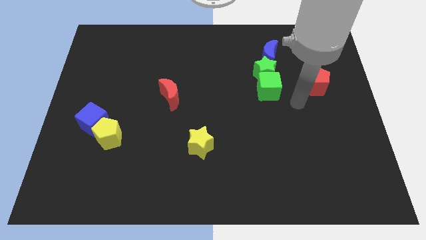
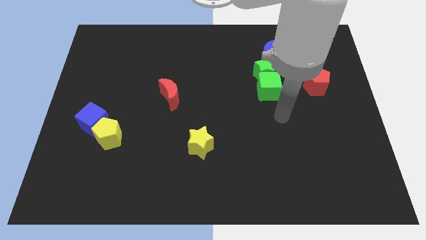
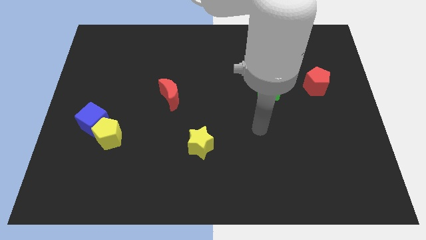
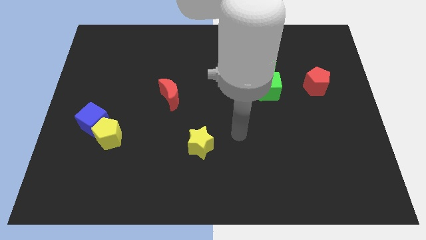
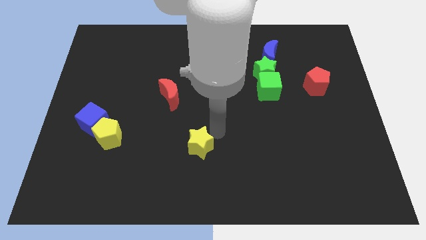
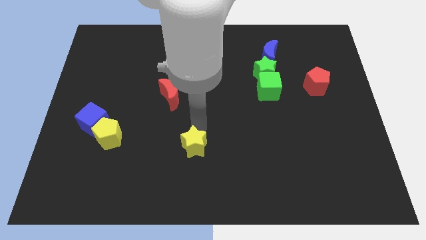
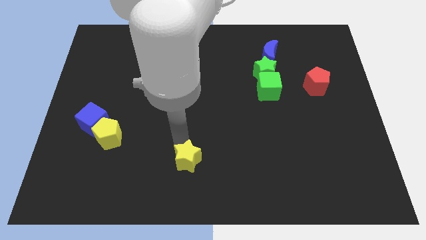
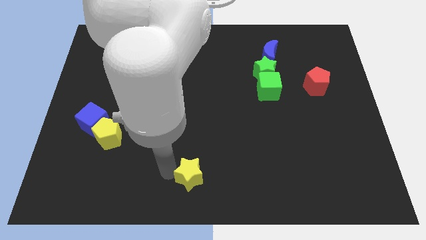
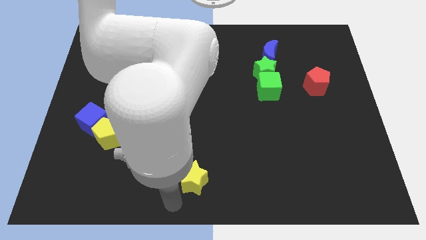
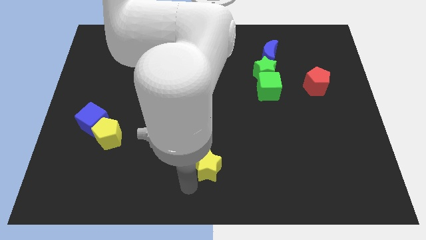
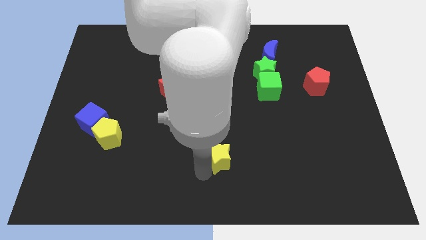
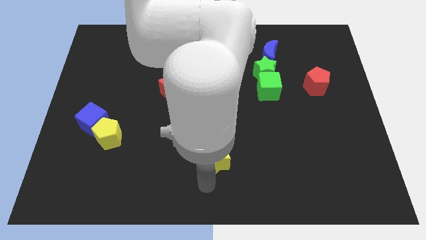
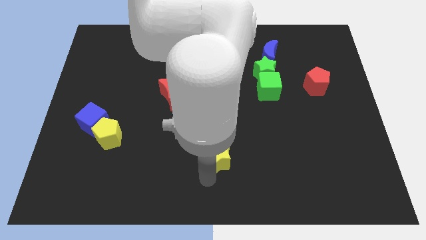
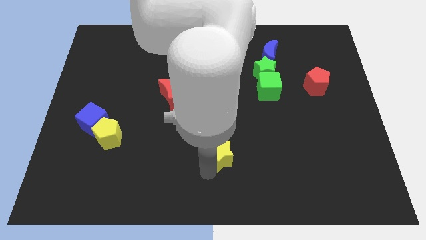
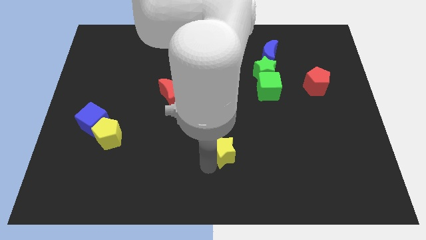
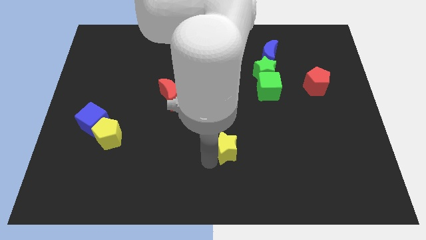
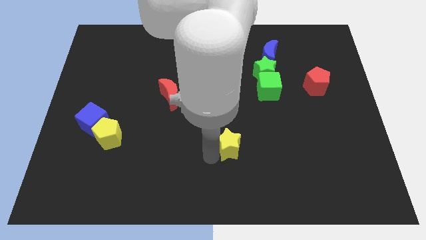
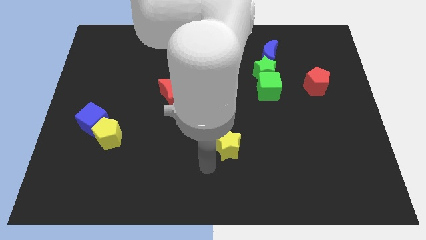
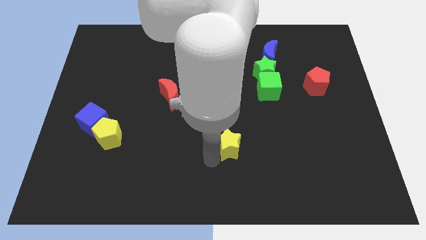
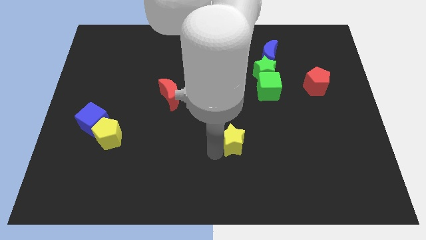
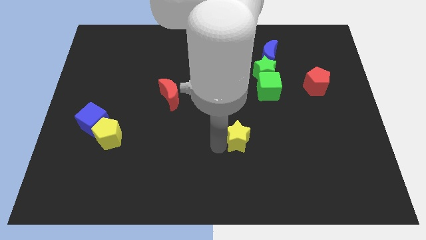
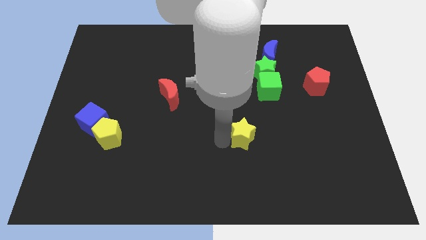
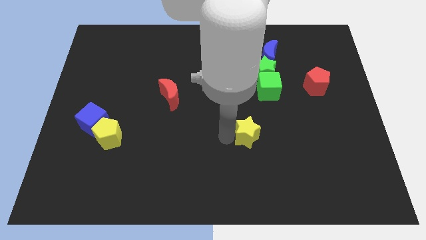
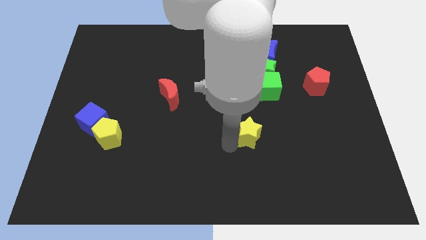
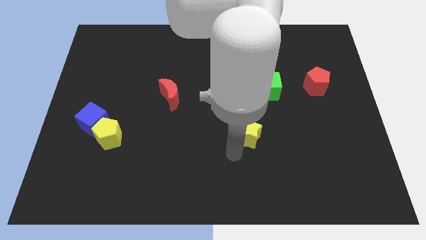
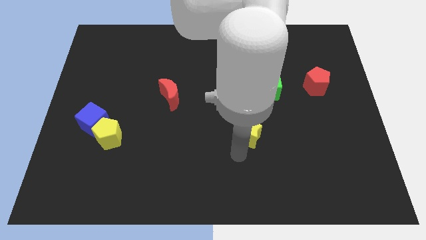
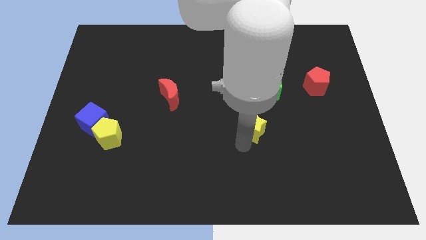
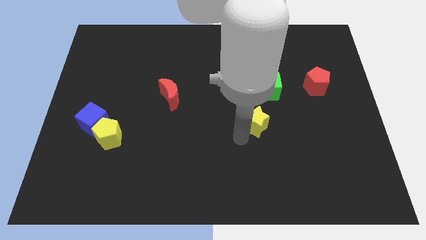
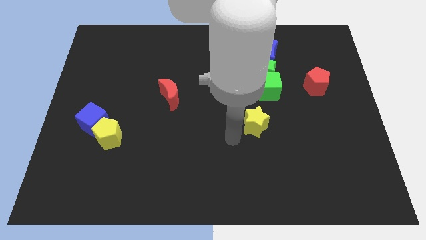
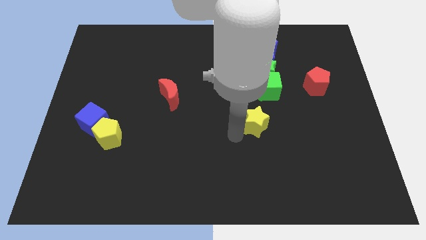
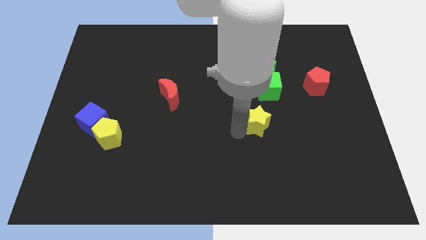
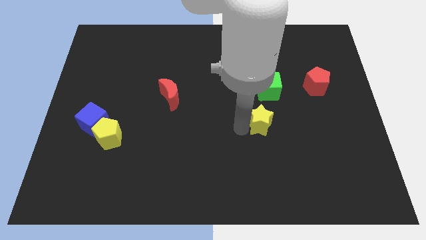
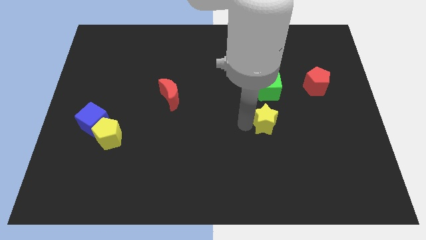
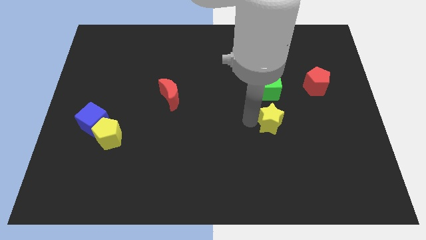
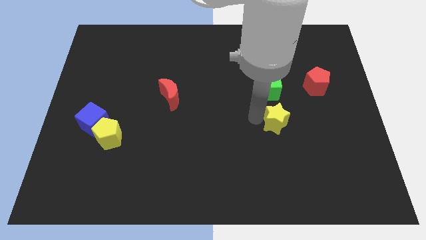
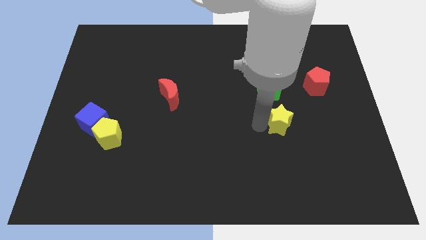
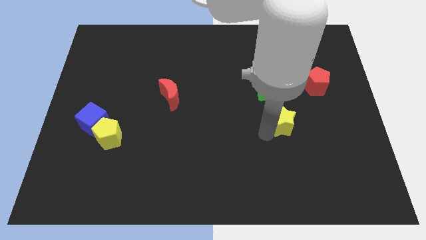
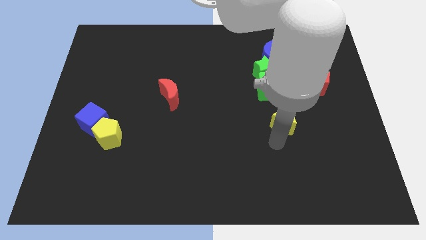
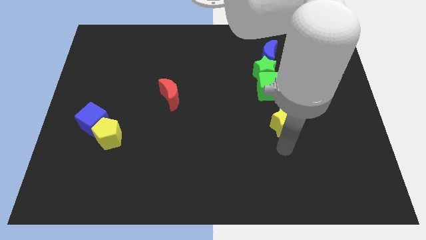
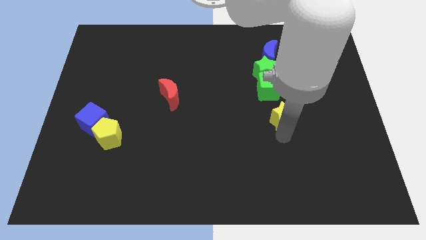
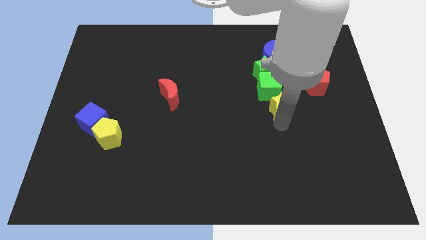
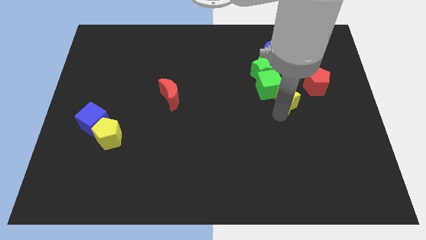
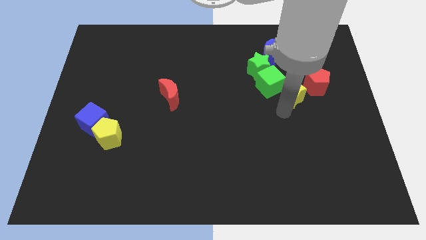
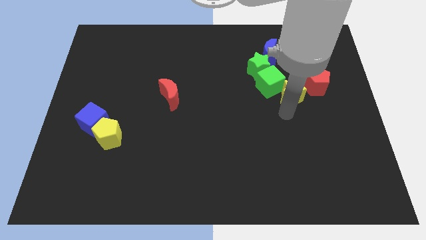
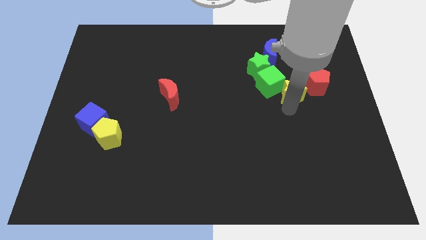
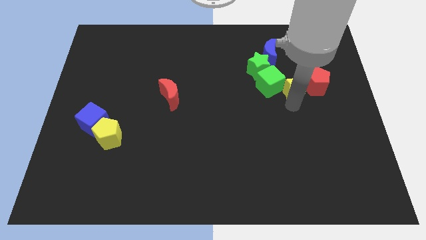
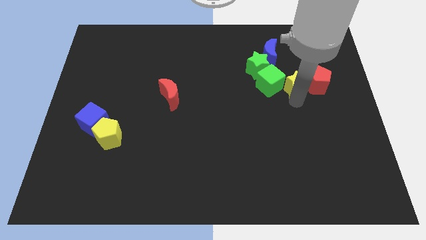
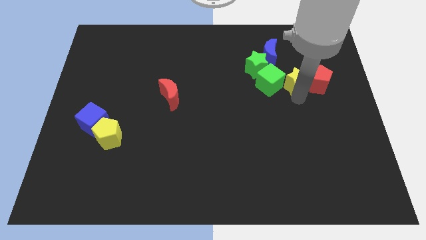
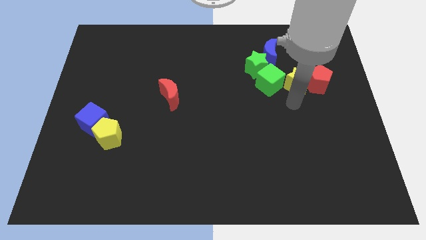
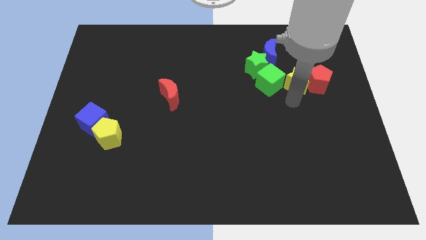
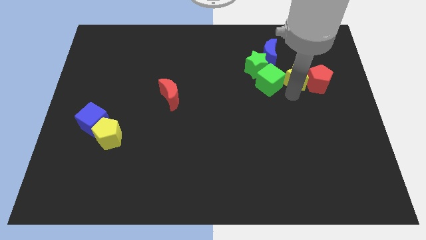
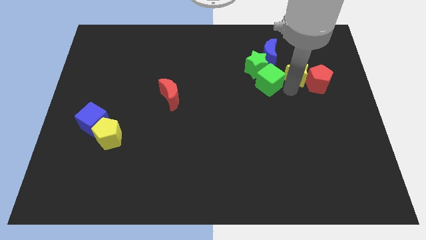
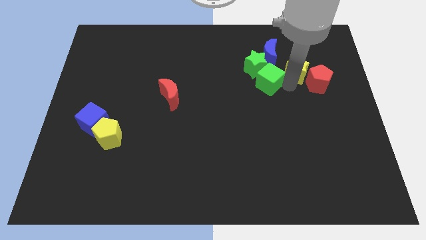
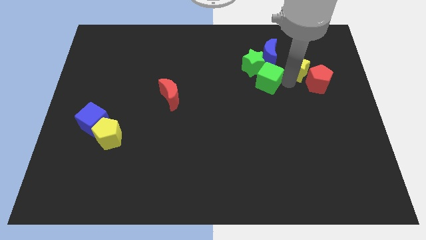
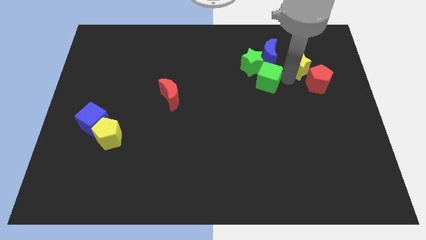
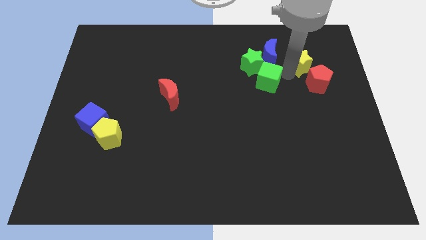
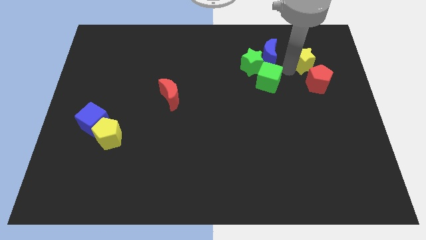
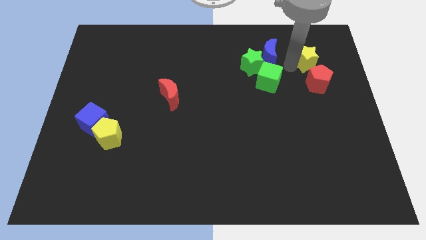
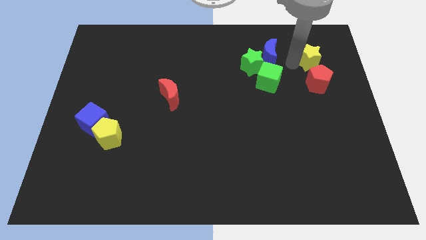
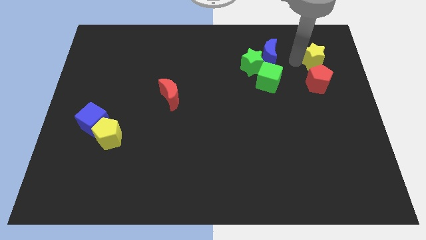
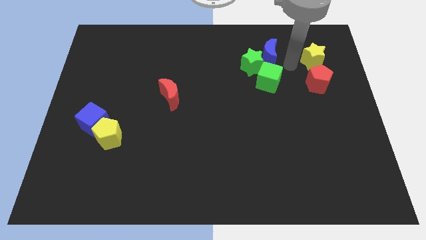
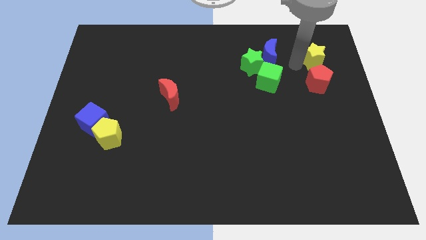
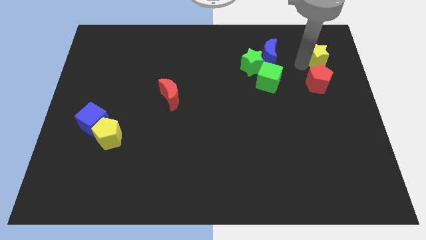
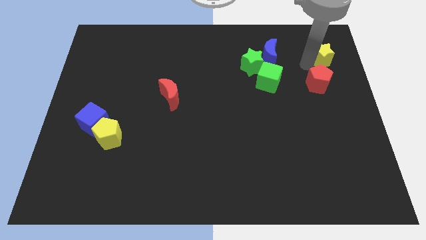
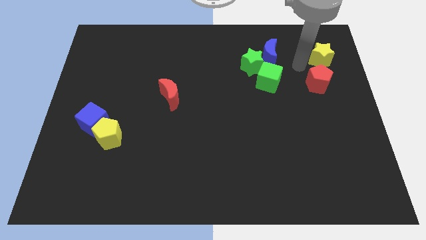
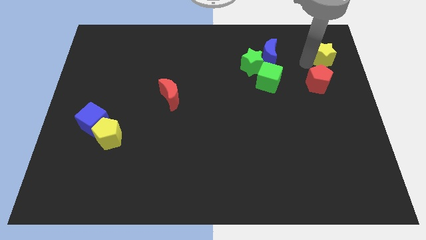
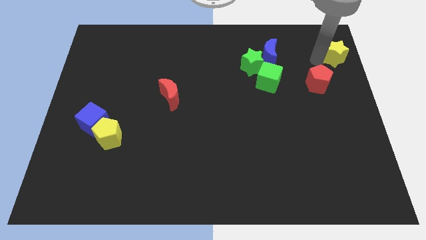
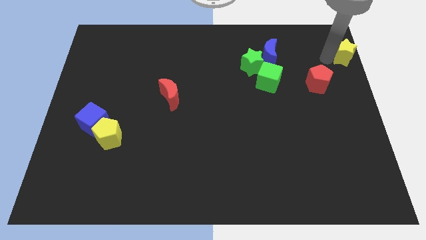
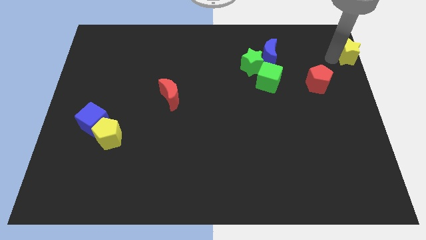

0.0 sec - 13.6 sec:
slide the yellow star to the top right corner
